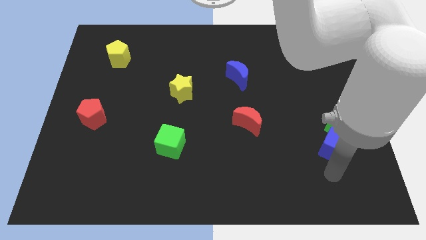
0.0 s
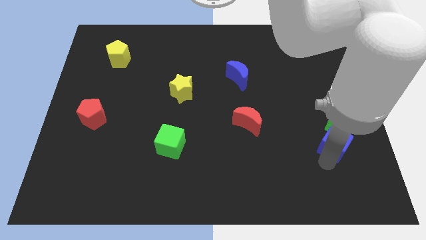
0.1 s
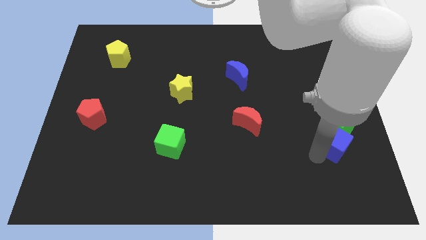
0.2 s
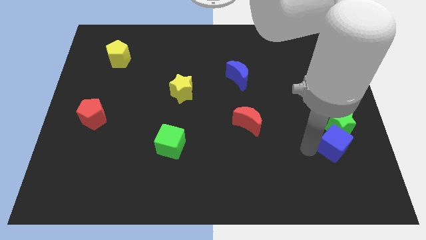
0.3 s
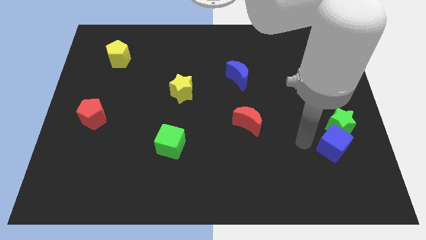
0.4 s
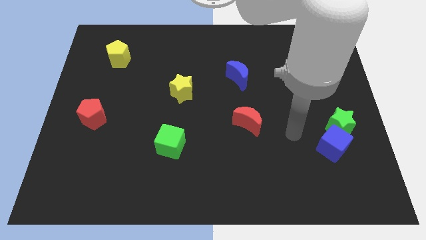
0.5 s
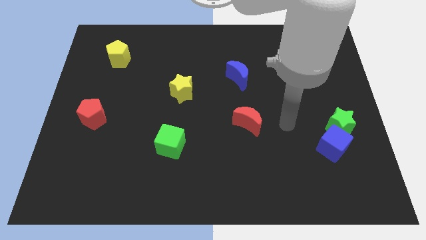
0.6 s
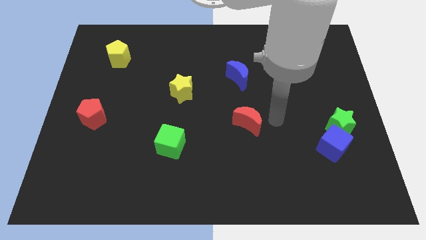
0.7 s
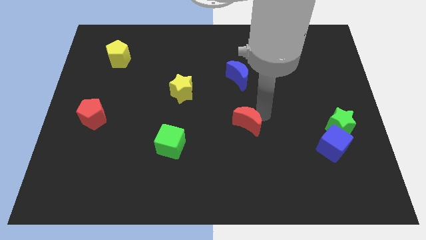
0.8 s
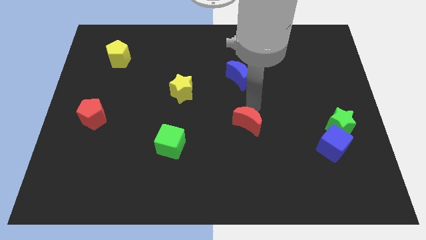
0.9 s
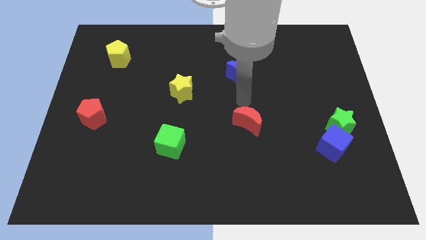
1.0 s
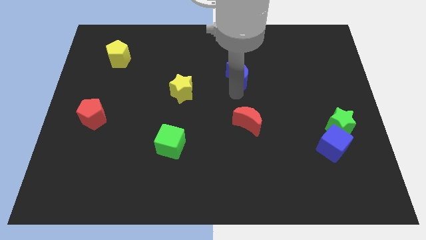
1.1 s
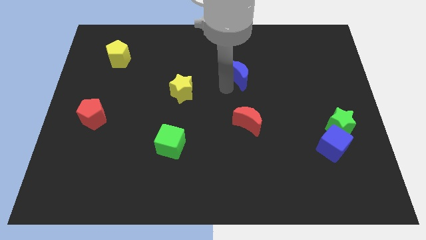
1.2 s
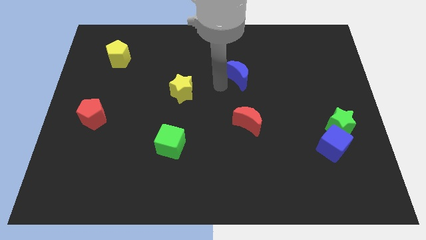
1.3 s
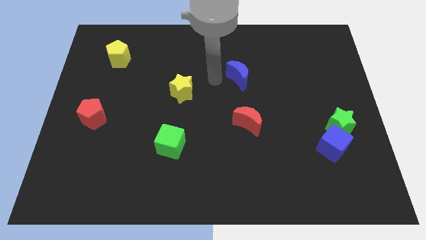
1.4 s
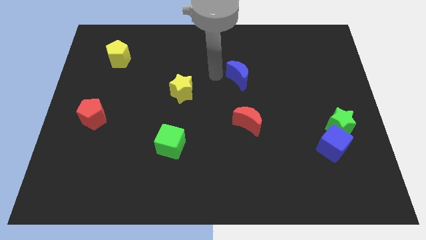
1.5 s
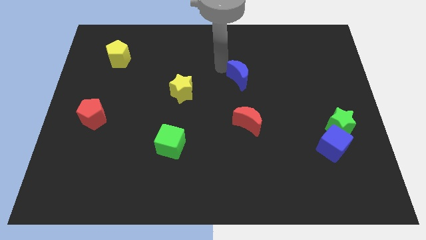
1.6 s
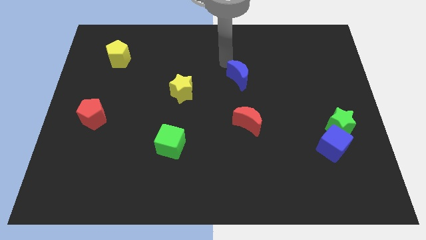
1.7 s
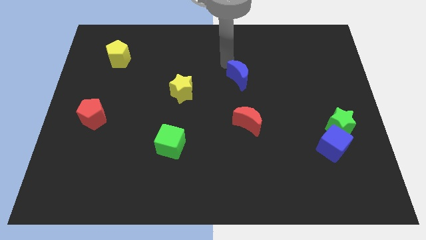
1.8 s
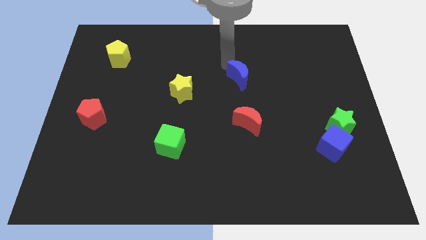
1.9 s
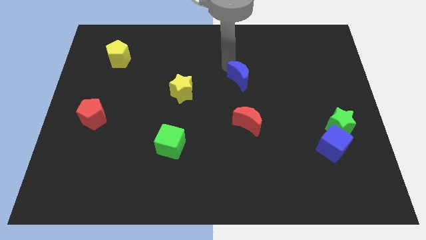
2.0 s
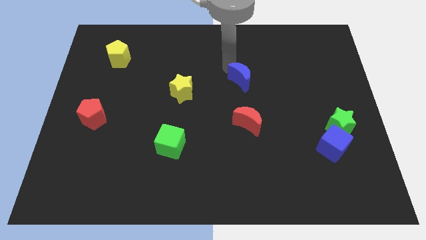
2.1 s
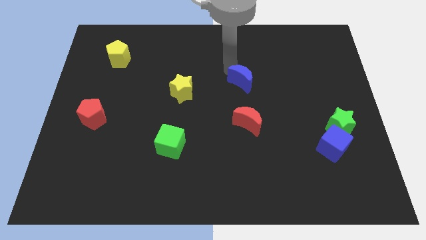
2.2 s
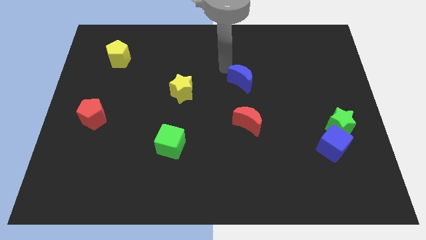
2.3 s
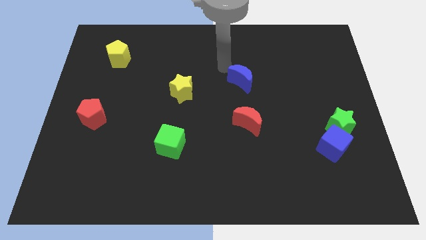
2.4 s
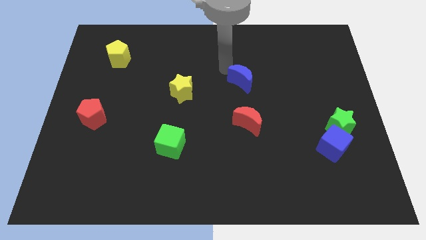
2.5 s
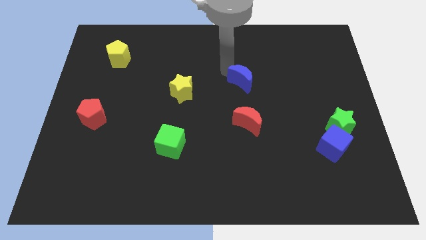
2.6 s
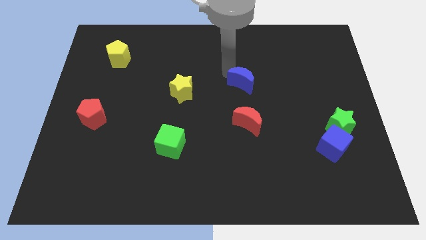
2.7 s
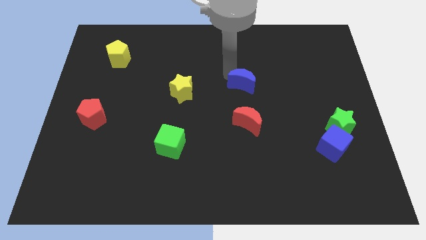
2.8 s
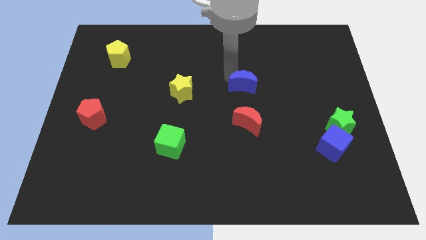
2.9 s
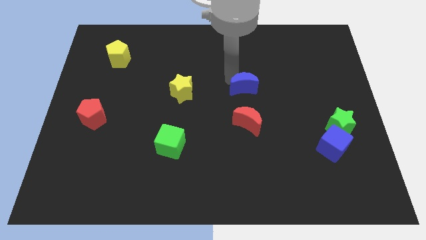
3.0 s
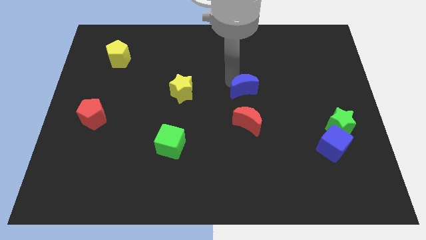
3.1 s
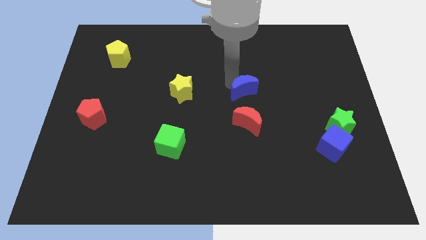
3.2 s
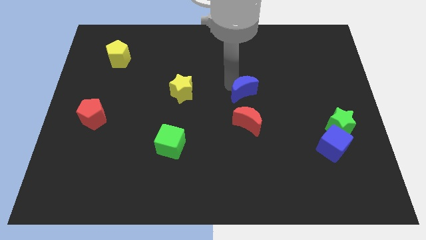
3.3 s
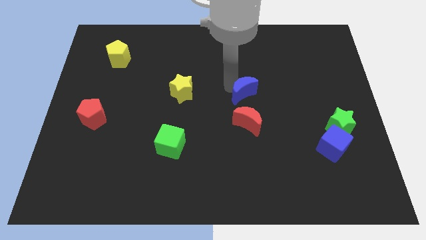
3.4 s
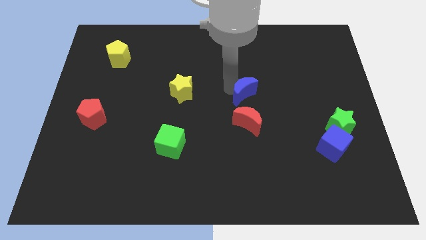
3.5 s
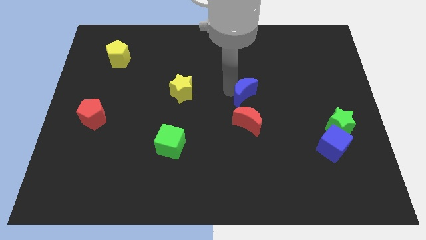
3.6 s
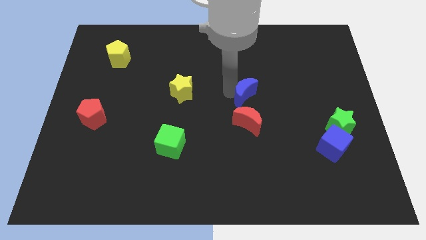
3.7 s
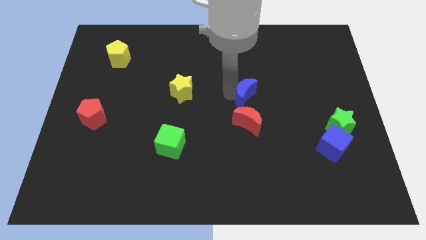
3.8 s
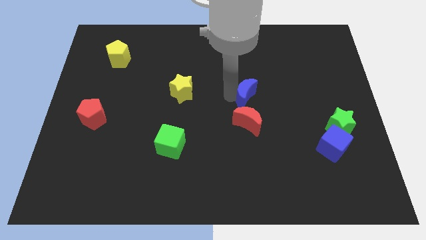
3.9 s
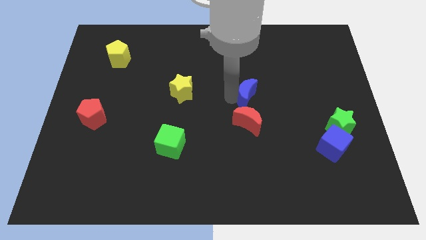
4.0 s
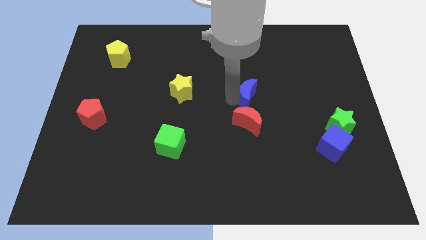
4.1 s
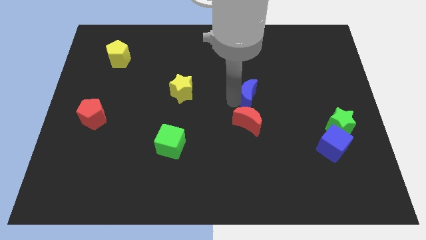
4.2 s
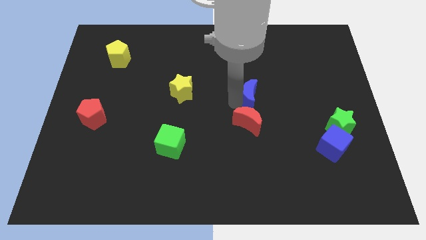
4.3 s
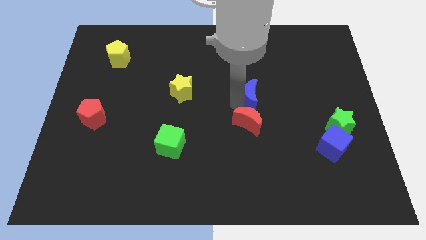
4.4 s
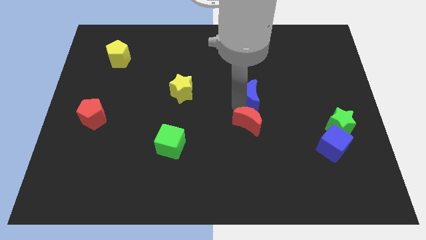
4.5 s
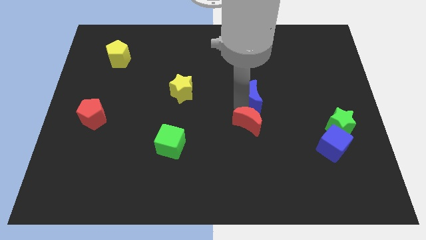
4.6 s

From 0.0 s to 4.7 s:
move the blue moon slightly down and then to the right

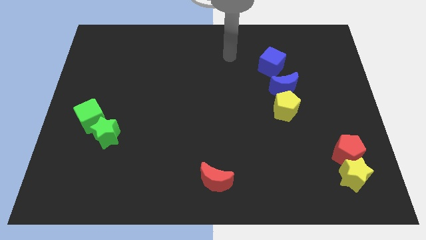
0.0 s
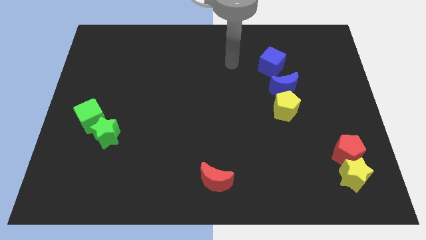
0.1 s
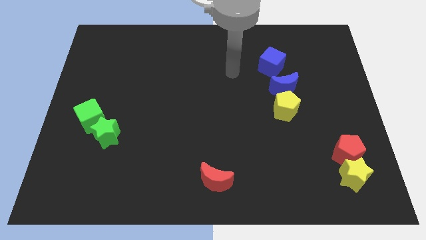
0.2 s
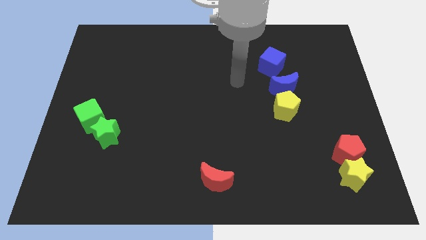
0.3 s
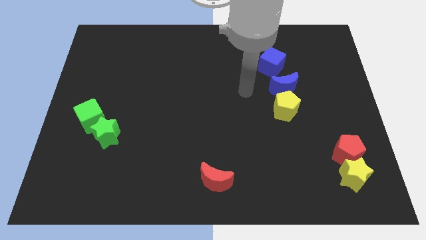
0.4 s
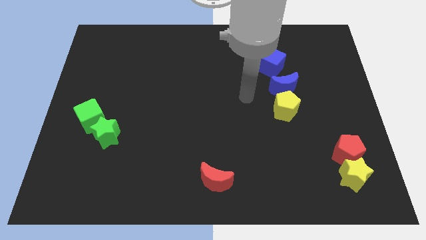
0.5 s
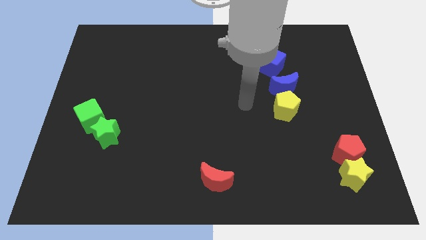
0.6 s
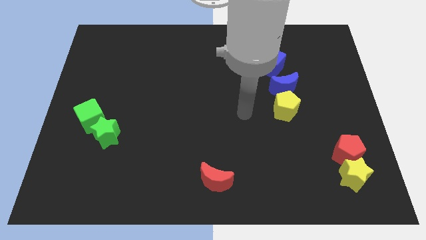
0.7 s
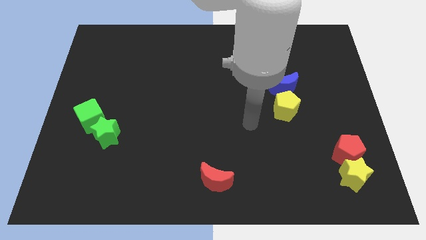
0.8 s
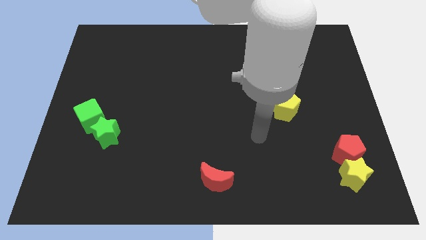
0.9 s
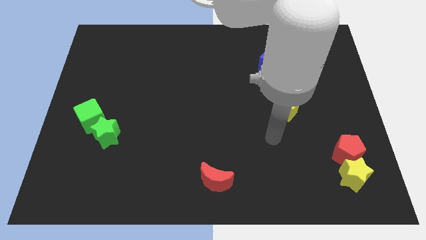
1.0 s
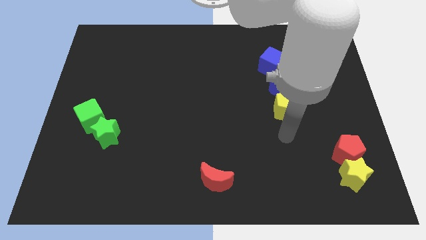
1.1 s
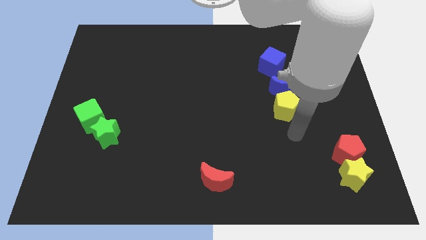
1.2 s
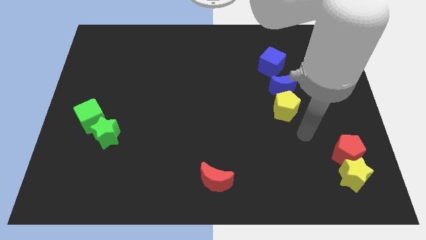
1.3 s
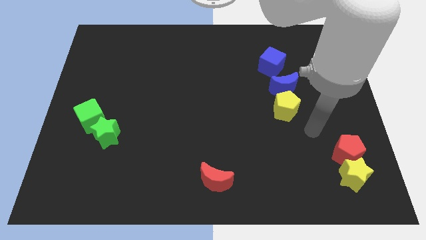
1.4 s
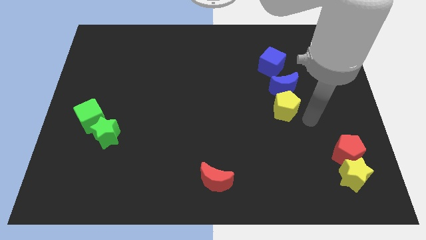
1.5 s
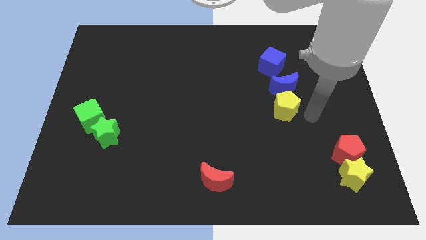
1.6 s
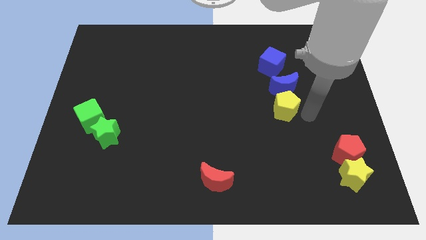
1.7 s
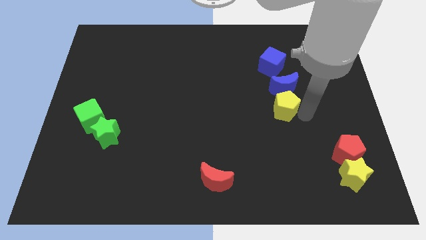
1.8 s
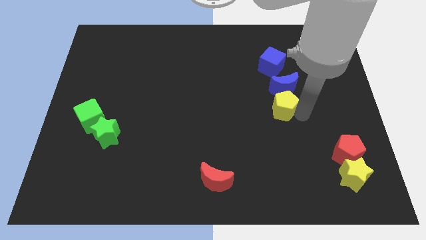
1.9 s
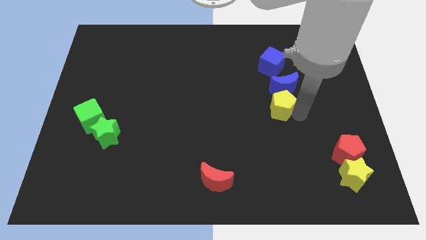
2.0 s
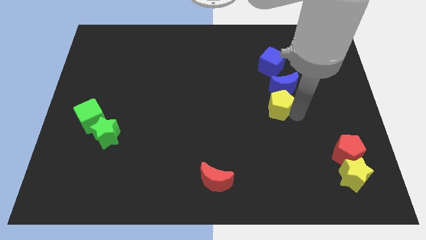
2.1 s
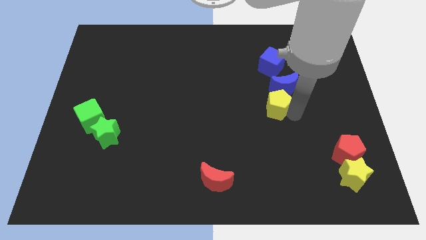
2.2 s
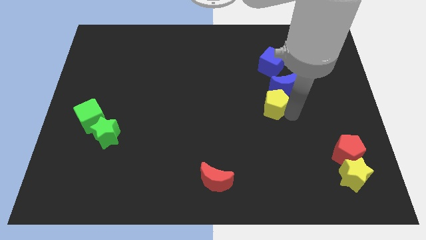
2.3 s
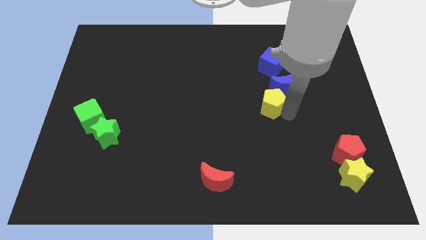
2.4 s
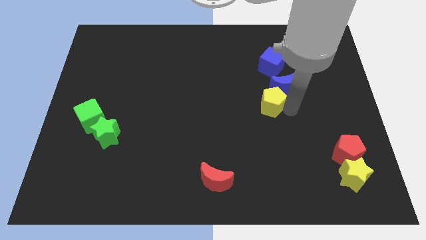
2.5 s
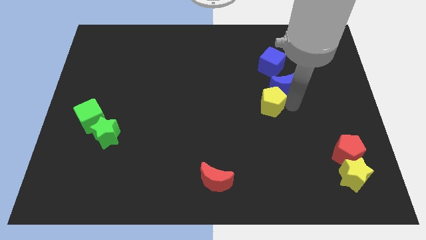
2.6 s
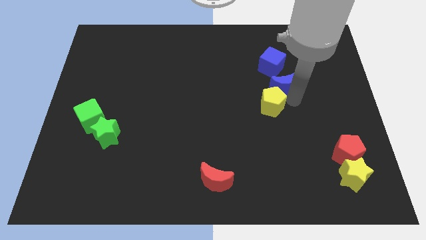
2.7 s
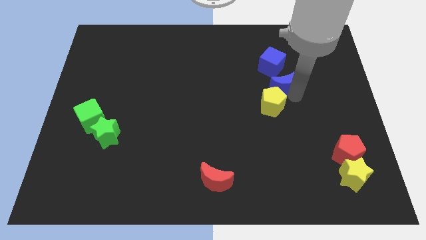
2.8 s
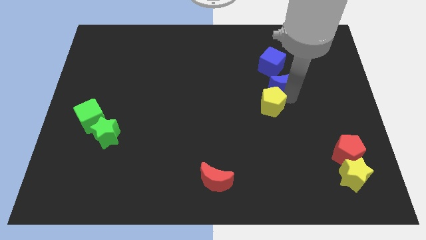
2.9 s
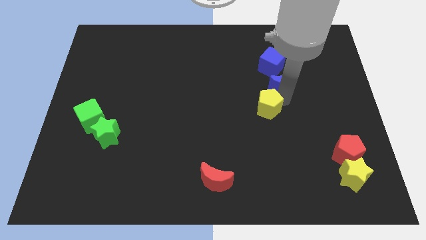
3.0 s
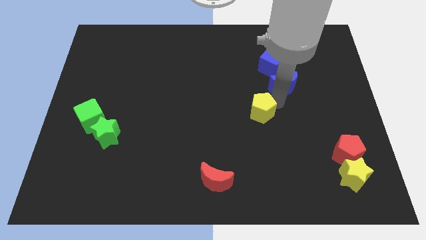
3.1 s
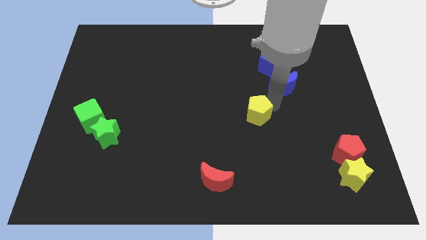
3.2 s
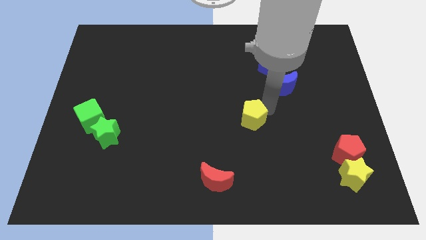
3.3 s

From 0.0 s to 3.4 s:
push the yellow pentagon somewhat to the left
